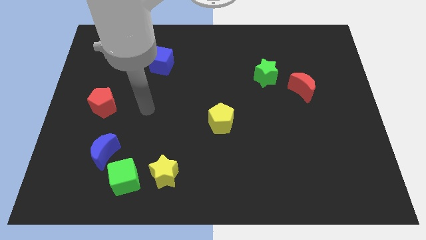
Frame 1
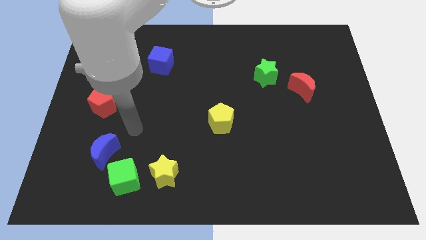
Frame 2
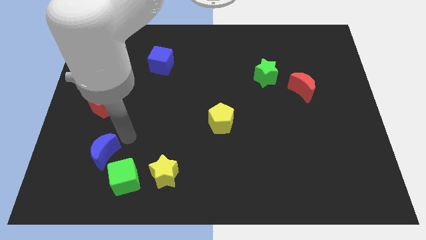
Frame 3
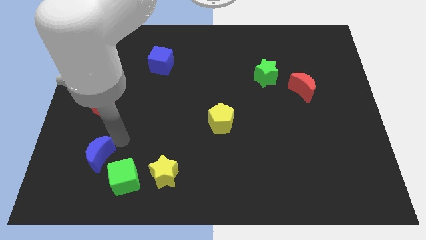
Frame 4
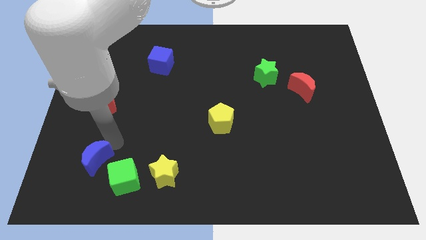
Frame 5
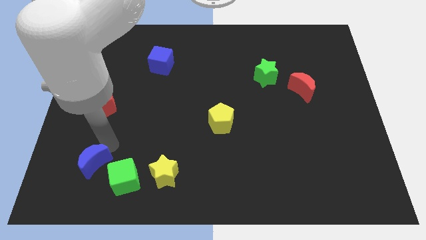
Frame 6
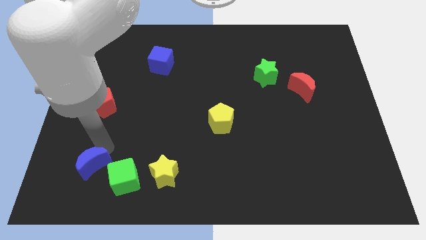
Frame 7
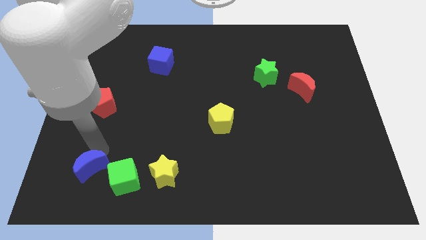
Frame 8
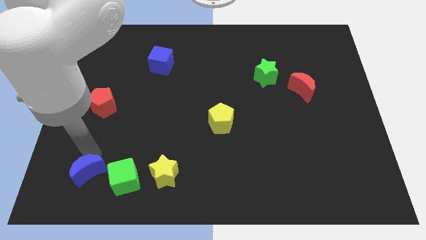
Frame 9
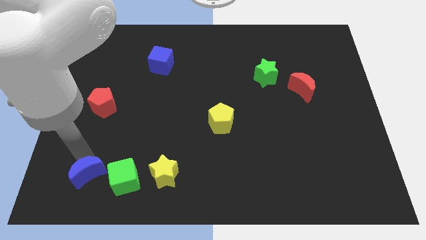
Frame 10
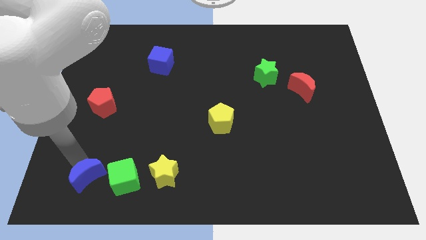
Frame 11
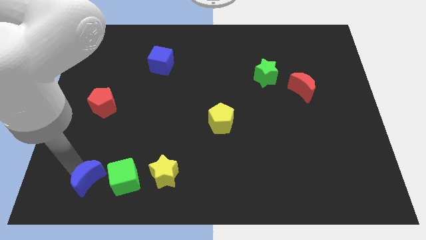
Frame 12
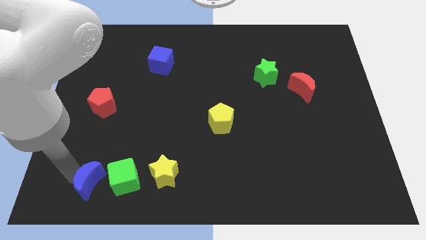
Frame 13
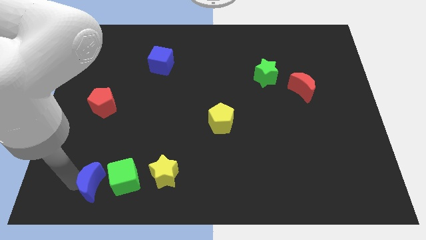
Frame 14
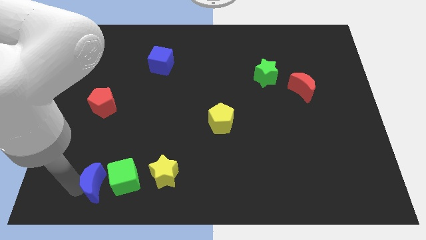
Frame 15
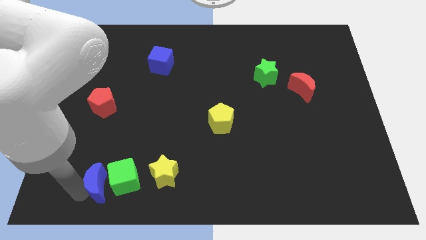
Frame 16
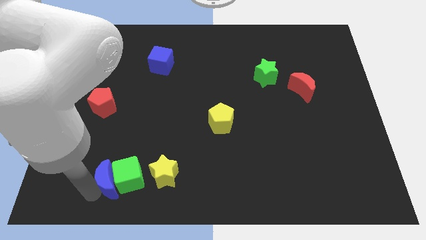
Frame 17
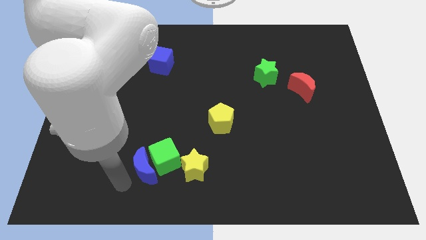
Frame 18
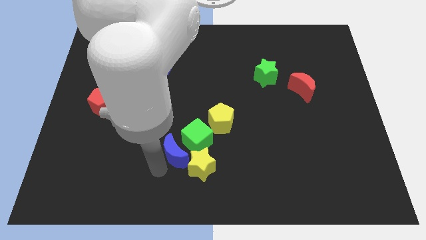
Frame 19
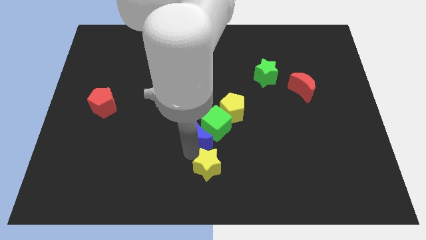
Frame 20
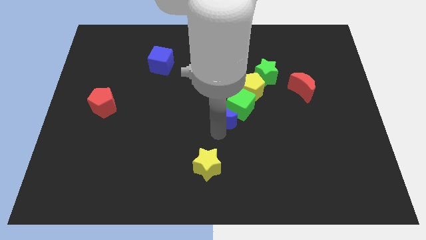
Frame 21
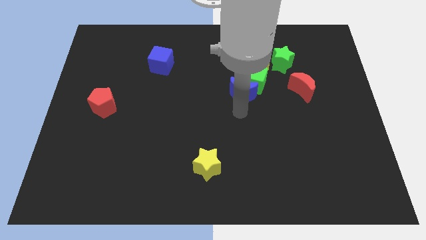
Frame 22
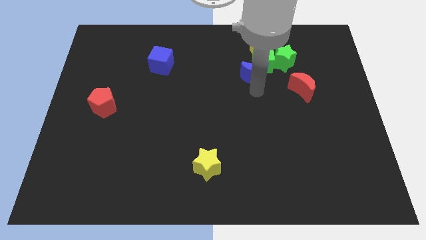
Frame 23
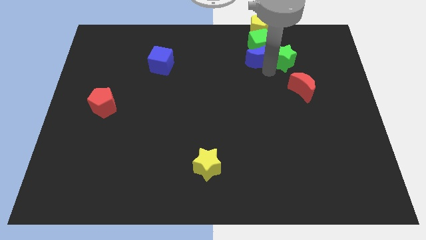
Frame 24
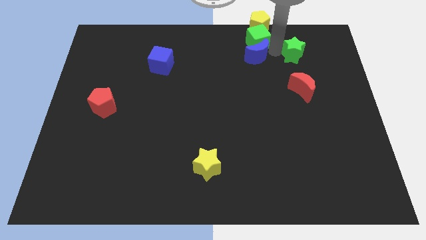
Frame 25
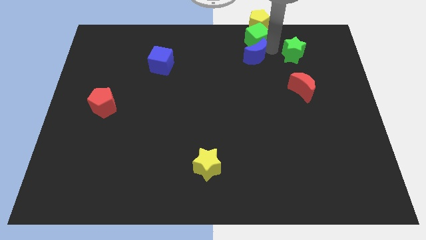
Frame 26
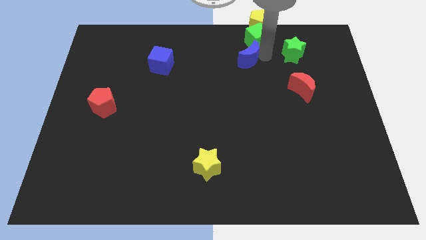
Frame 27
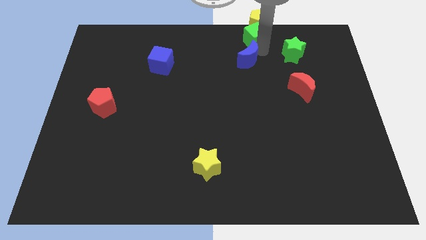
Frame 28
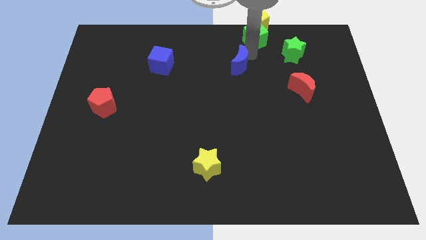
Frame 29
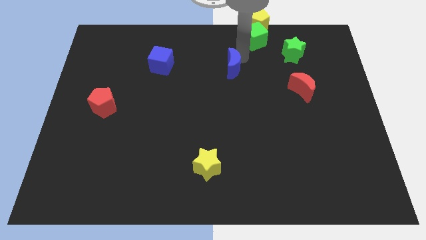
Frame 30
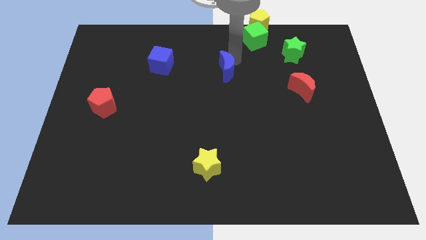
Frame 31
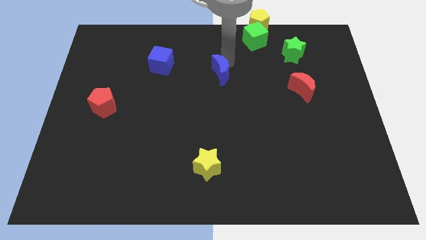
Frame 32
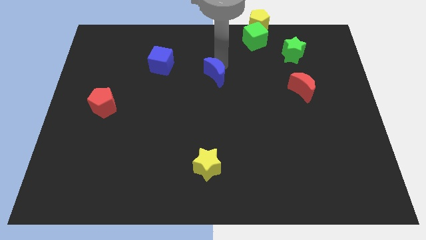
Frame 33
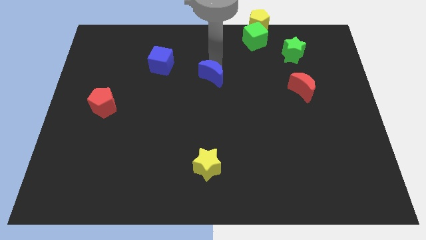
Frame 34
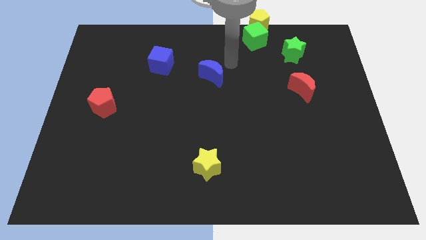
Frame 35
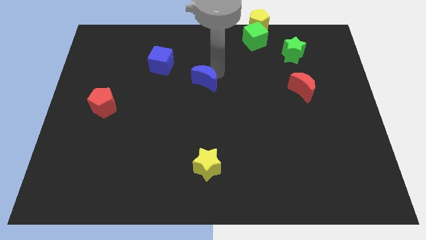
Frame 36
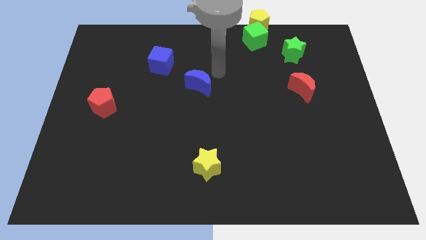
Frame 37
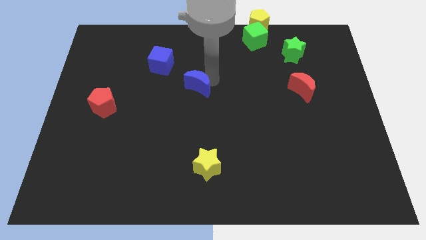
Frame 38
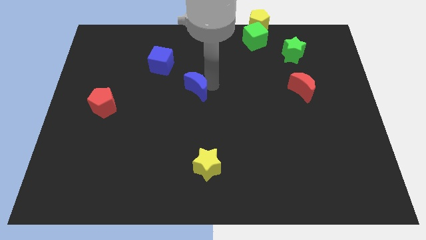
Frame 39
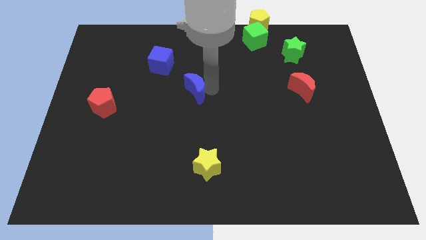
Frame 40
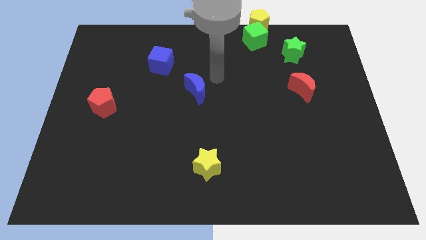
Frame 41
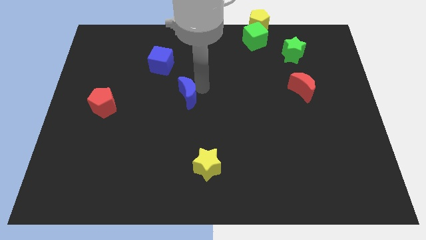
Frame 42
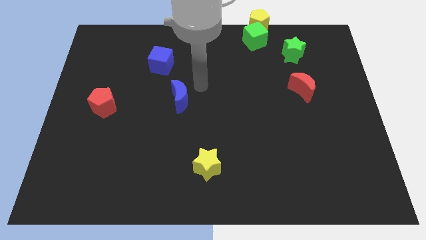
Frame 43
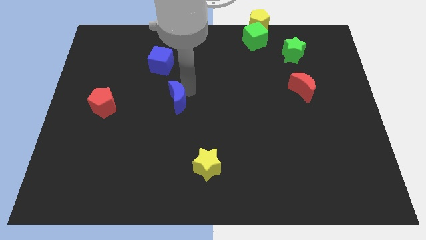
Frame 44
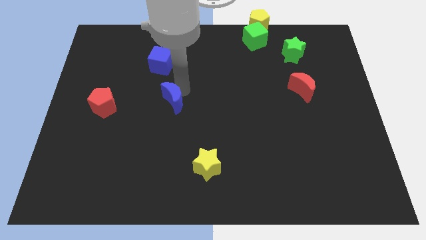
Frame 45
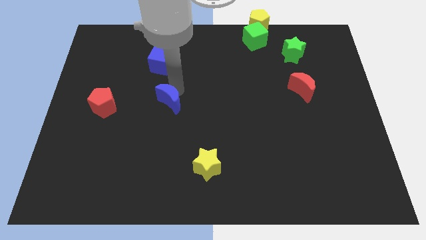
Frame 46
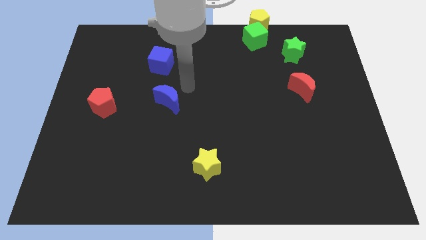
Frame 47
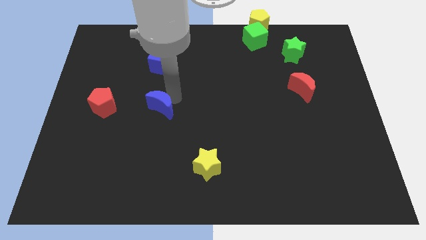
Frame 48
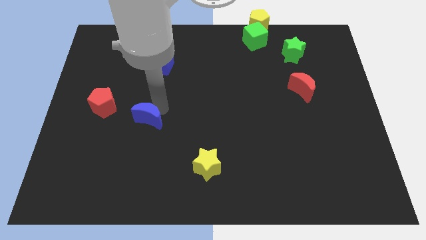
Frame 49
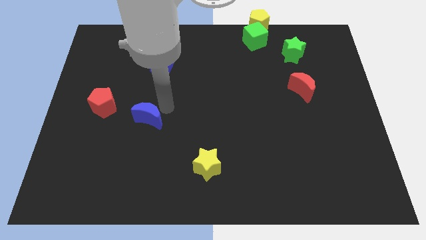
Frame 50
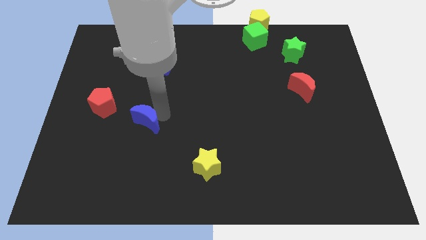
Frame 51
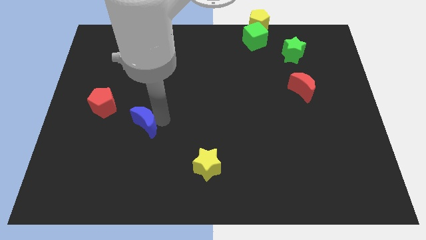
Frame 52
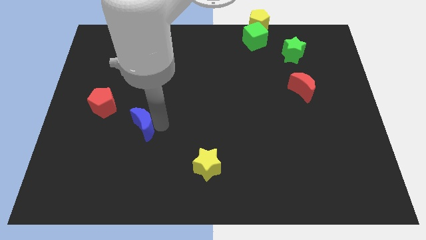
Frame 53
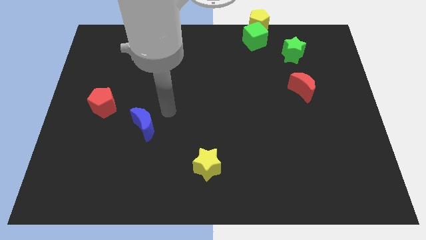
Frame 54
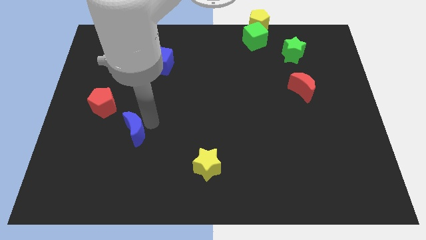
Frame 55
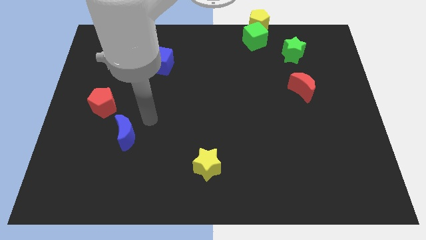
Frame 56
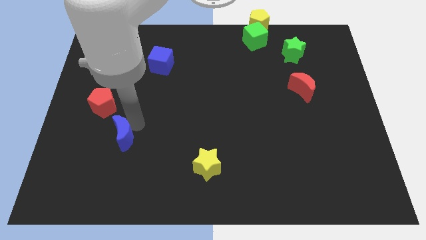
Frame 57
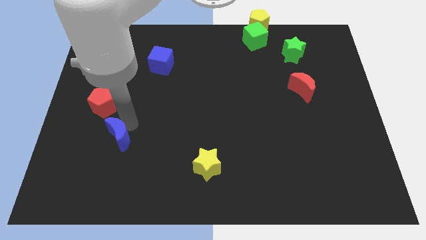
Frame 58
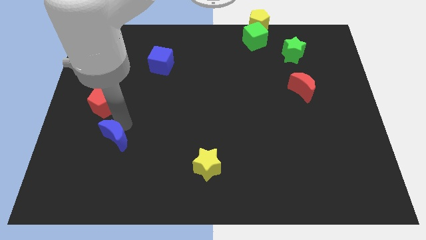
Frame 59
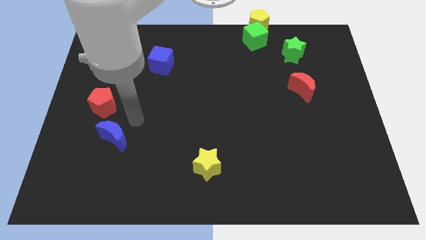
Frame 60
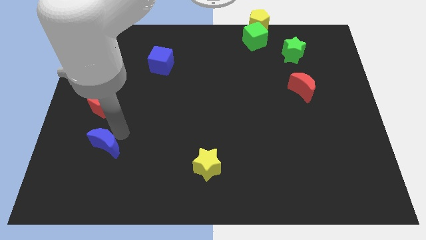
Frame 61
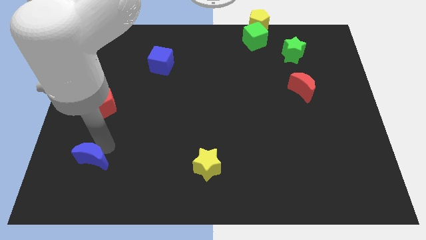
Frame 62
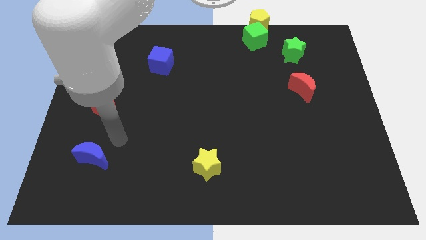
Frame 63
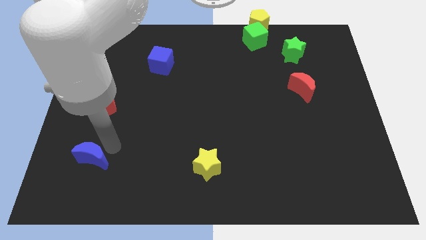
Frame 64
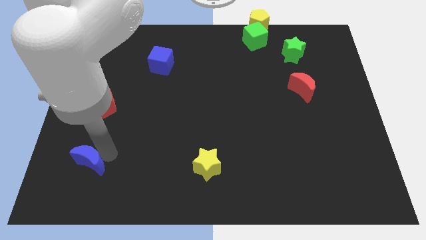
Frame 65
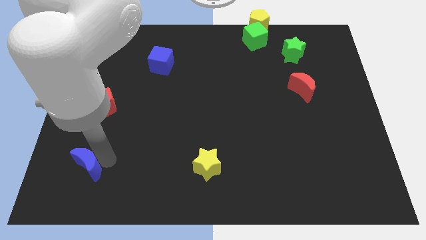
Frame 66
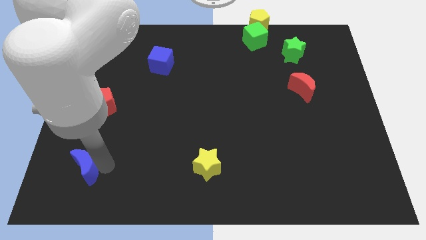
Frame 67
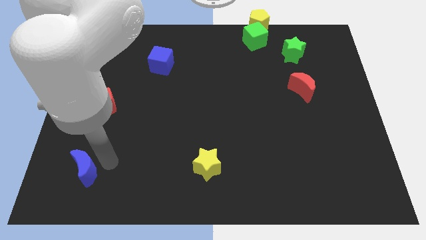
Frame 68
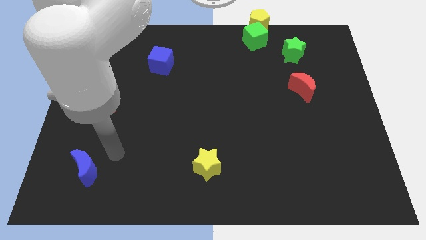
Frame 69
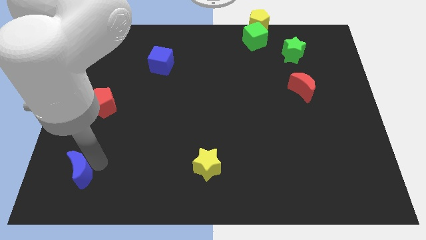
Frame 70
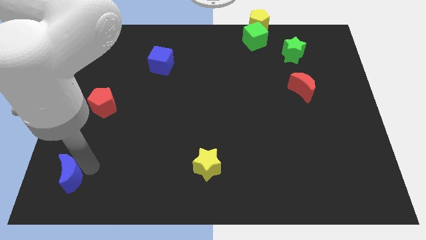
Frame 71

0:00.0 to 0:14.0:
put the blue moon to the lower left corner

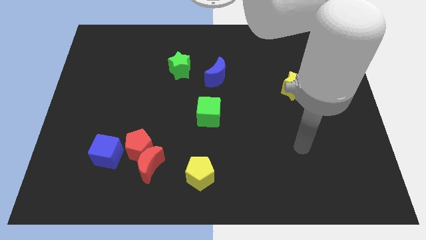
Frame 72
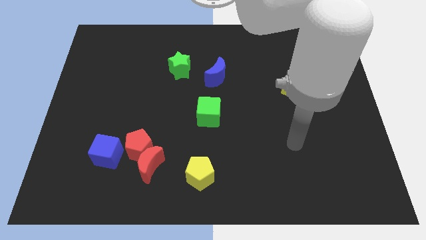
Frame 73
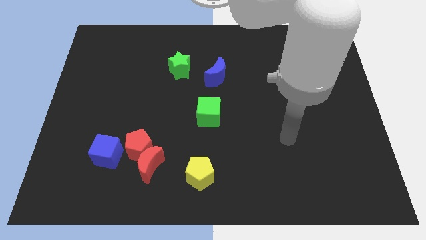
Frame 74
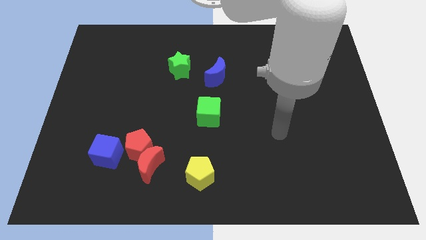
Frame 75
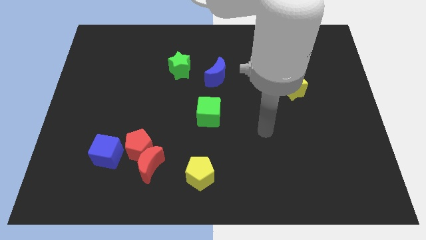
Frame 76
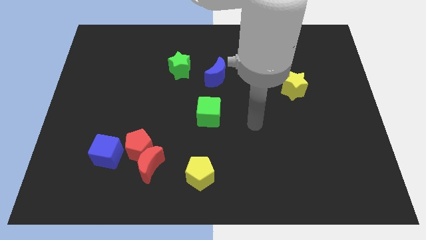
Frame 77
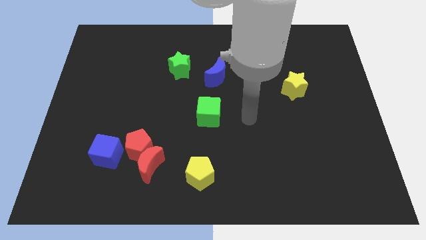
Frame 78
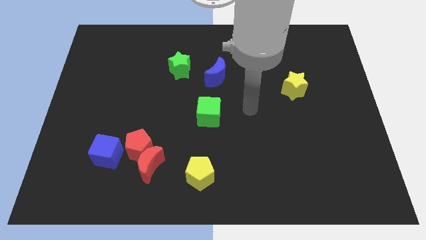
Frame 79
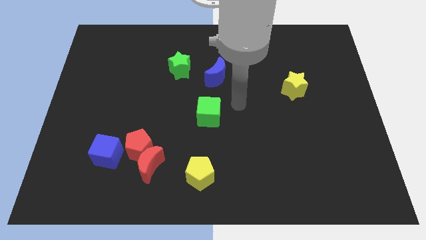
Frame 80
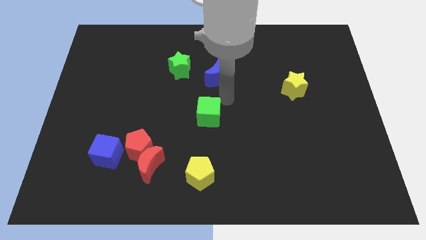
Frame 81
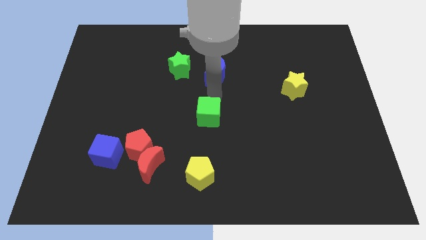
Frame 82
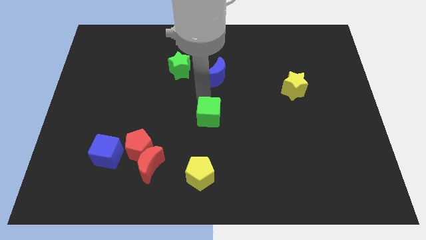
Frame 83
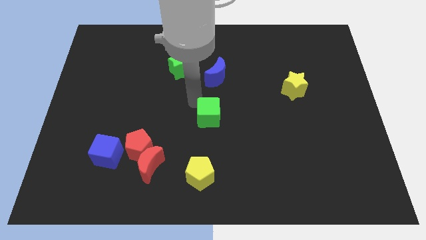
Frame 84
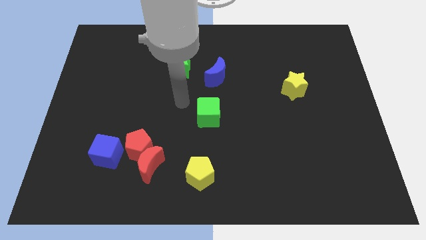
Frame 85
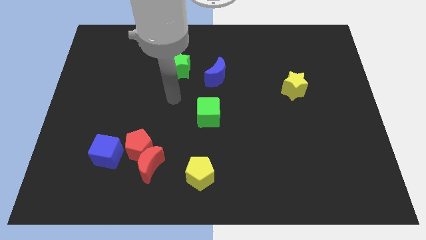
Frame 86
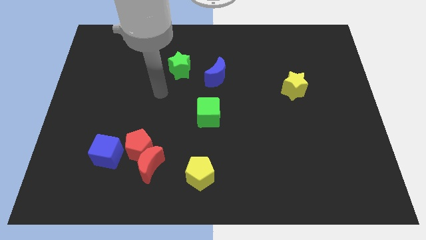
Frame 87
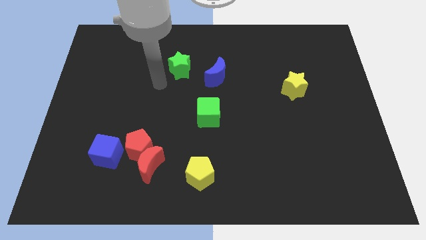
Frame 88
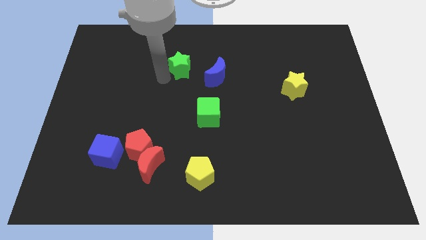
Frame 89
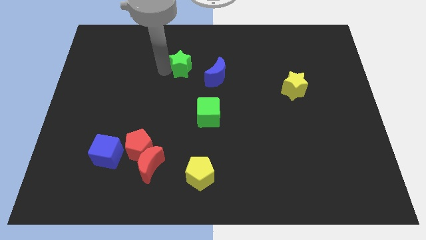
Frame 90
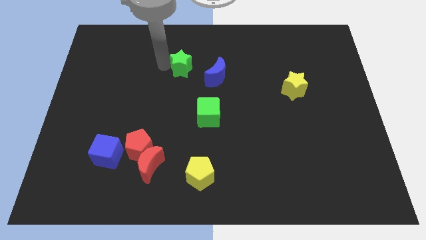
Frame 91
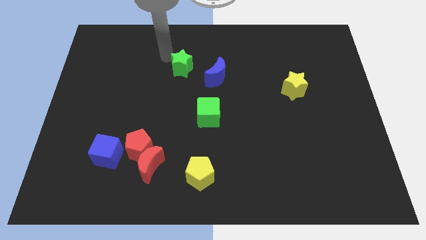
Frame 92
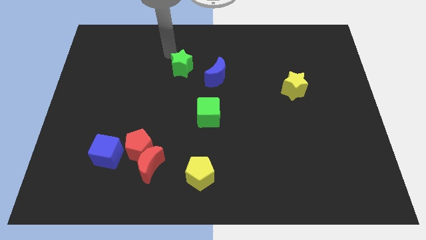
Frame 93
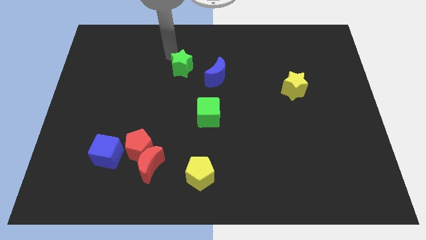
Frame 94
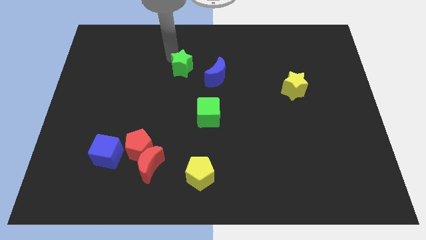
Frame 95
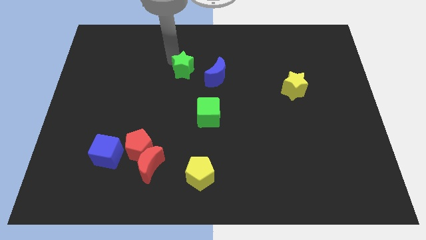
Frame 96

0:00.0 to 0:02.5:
push the green star to the middle of the board
